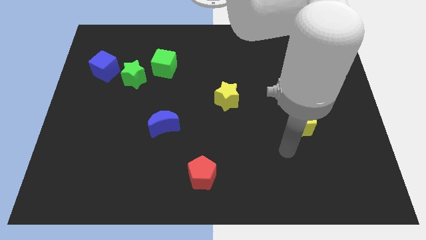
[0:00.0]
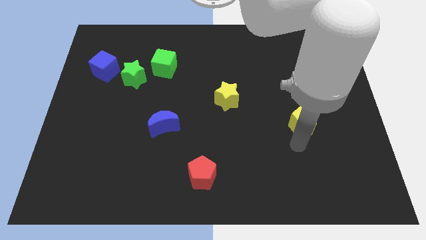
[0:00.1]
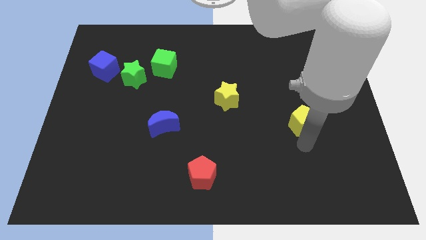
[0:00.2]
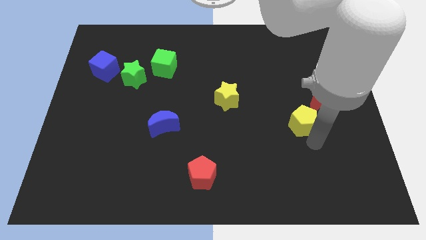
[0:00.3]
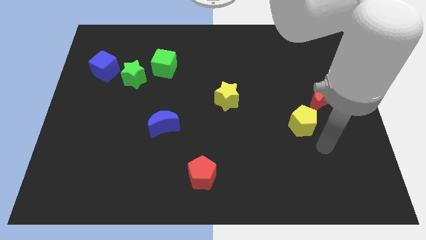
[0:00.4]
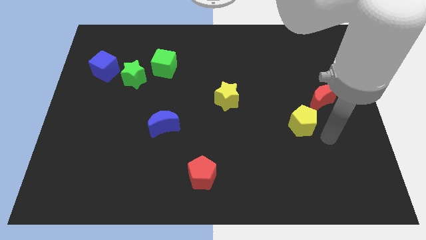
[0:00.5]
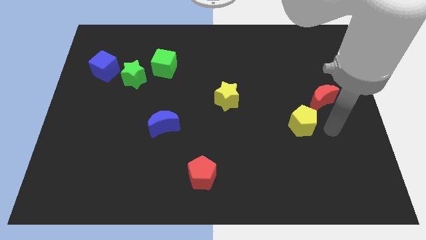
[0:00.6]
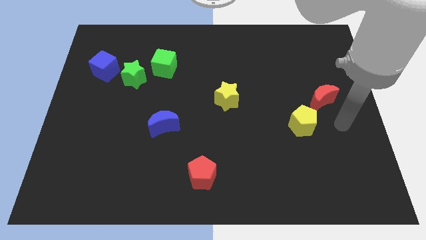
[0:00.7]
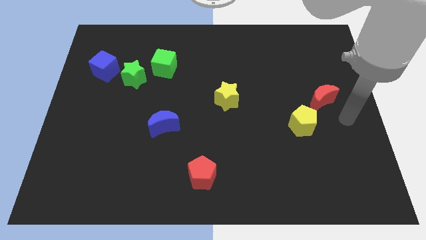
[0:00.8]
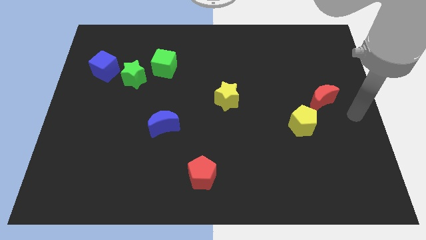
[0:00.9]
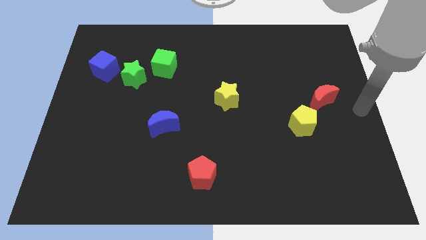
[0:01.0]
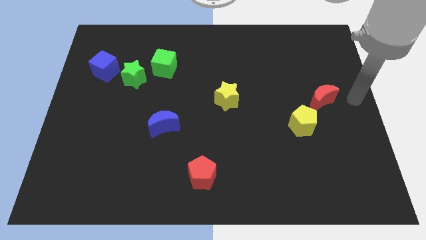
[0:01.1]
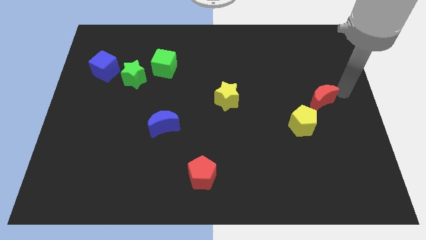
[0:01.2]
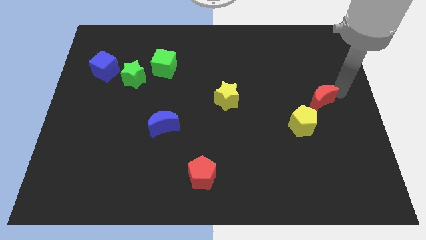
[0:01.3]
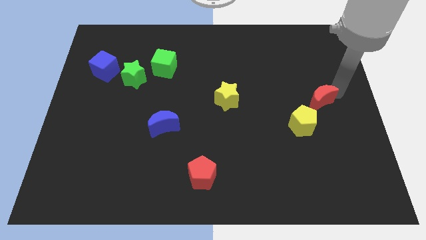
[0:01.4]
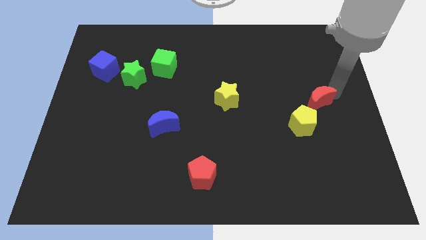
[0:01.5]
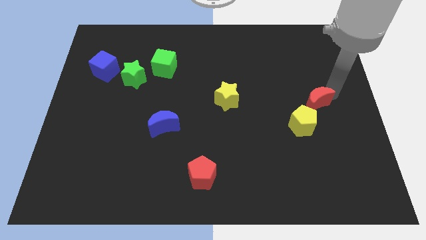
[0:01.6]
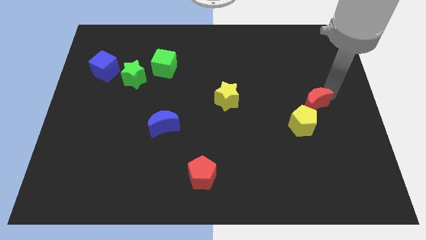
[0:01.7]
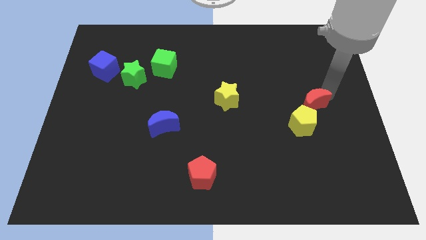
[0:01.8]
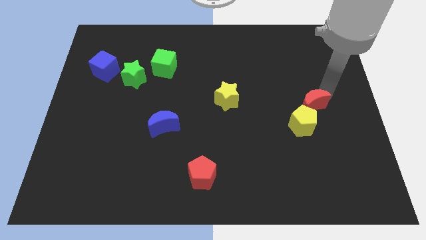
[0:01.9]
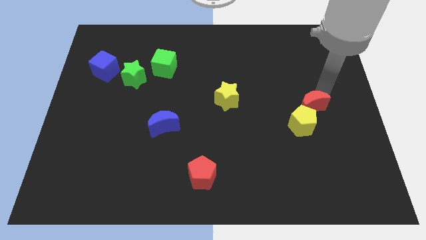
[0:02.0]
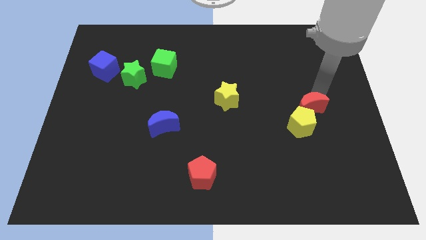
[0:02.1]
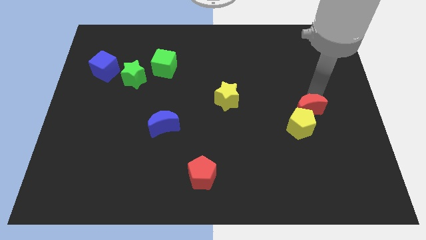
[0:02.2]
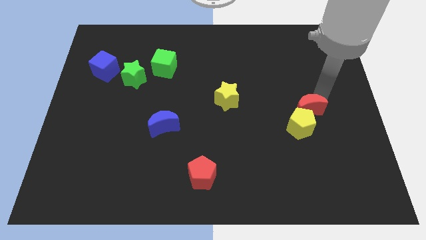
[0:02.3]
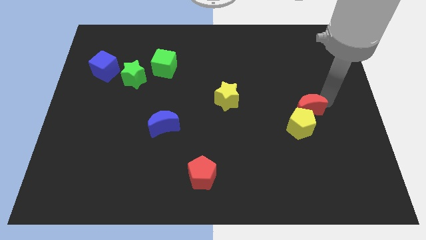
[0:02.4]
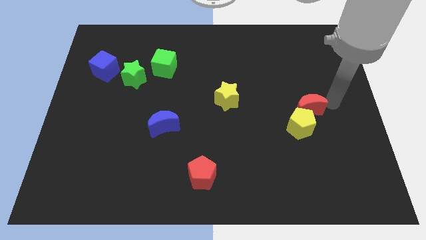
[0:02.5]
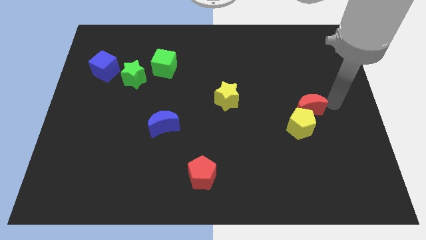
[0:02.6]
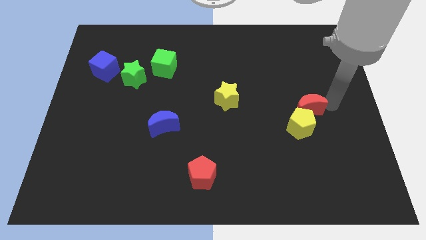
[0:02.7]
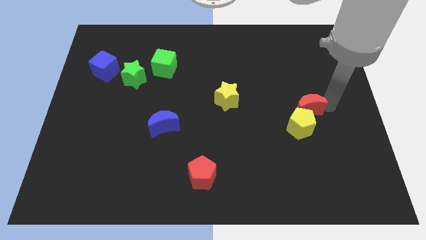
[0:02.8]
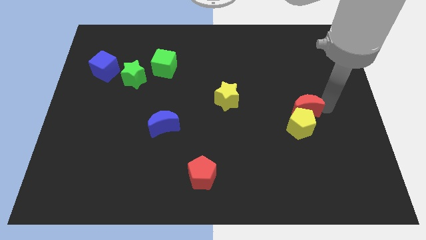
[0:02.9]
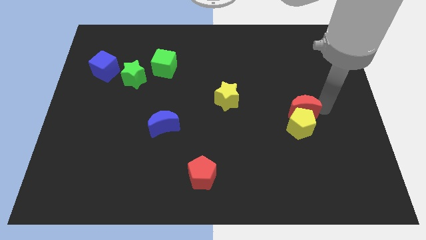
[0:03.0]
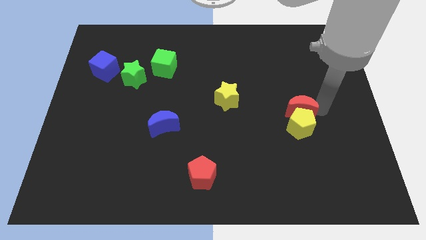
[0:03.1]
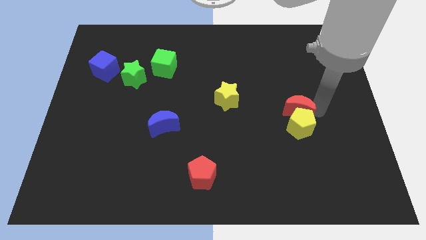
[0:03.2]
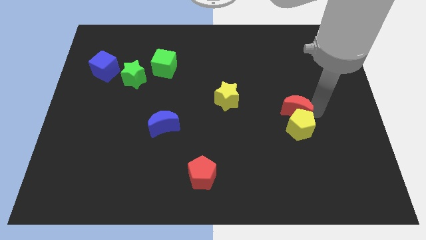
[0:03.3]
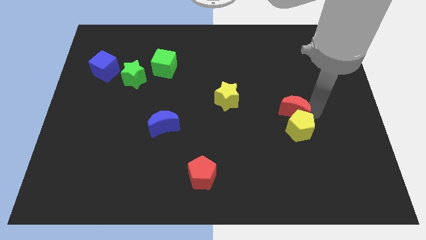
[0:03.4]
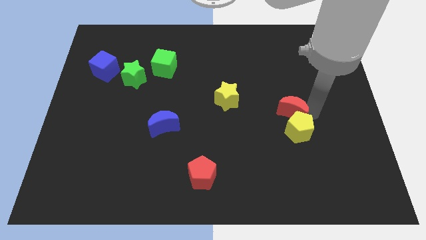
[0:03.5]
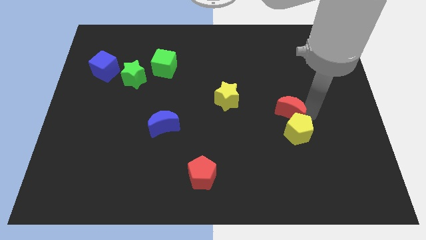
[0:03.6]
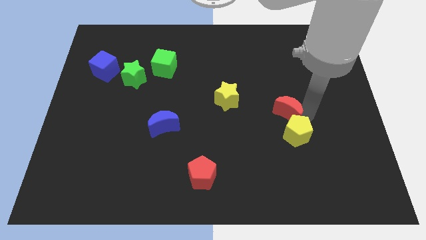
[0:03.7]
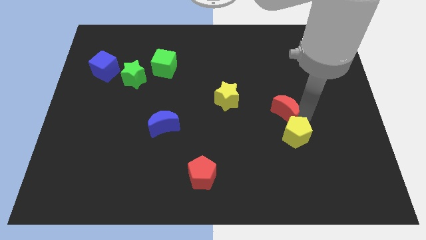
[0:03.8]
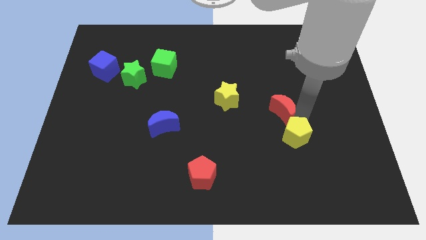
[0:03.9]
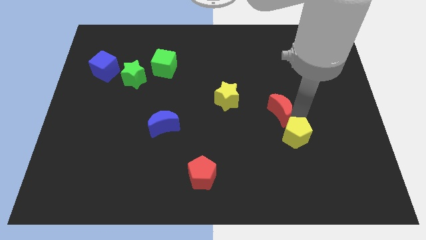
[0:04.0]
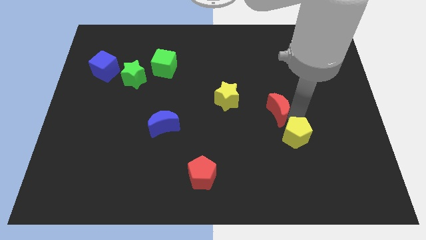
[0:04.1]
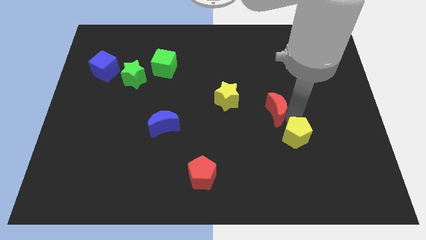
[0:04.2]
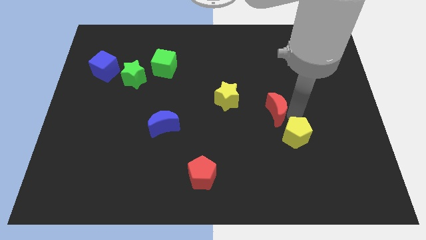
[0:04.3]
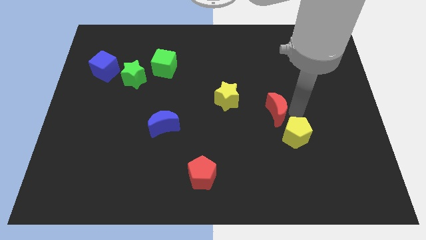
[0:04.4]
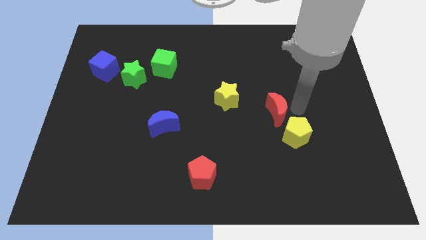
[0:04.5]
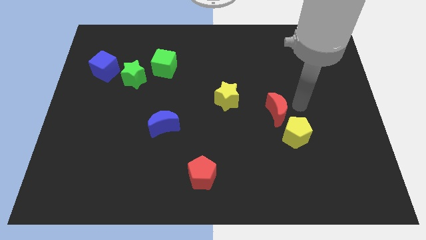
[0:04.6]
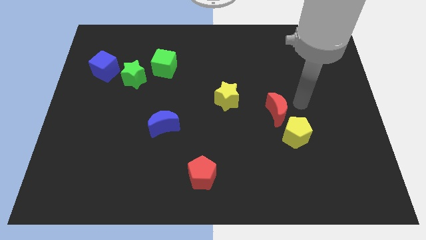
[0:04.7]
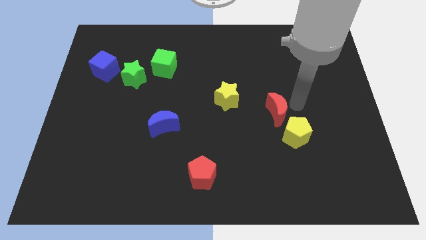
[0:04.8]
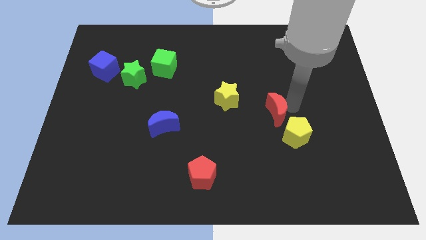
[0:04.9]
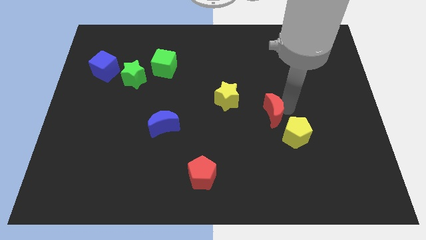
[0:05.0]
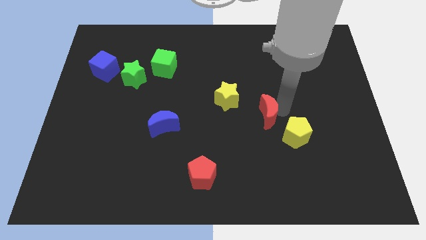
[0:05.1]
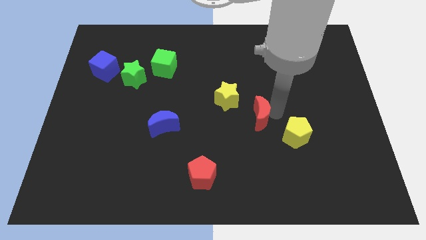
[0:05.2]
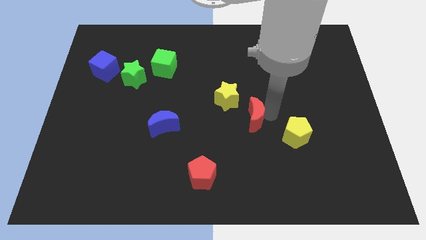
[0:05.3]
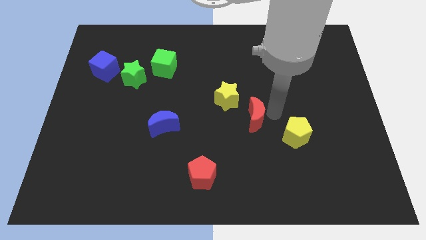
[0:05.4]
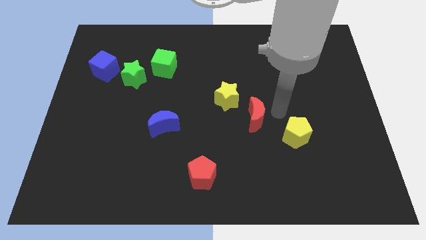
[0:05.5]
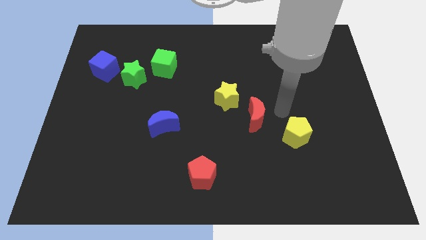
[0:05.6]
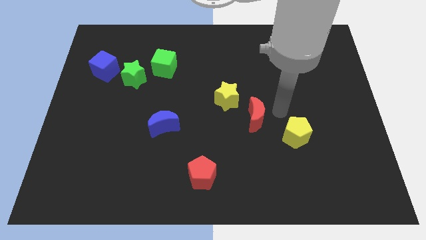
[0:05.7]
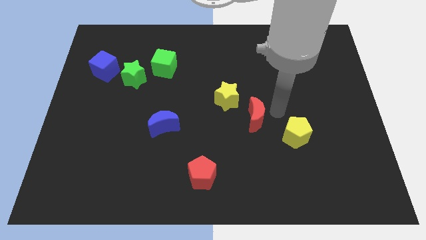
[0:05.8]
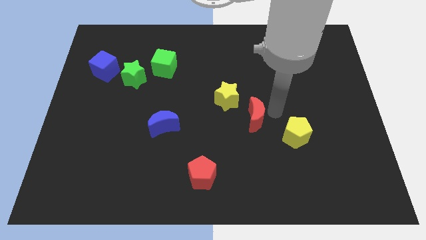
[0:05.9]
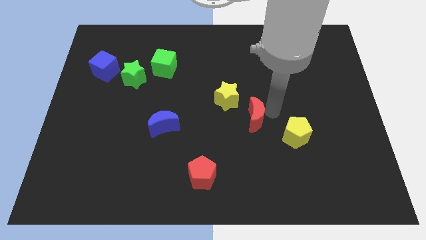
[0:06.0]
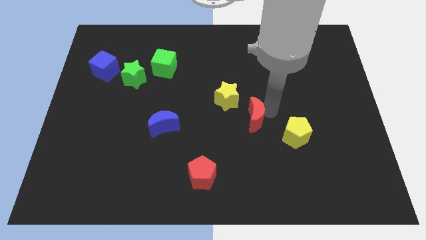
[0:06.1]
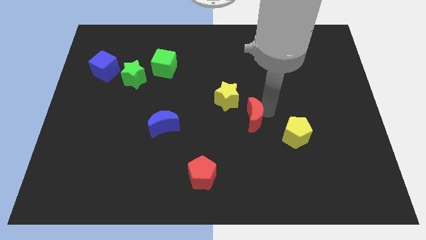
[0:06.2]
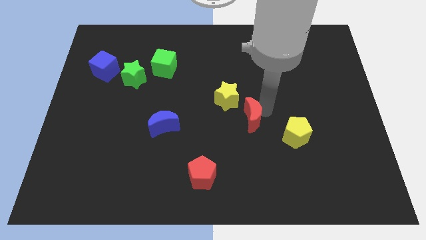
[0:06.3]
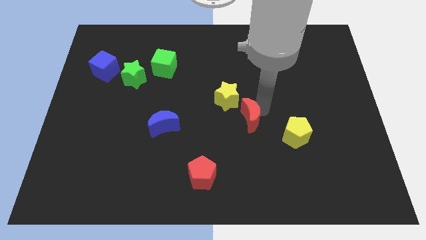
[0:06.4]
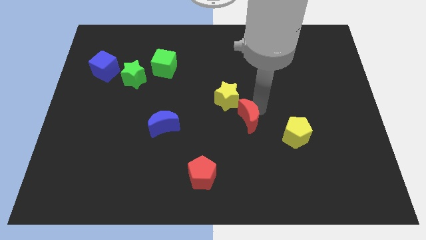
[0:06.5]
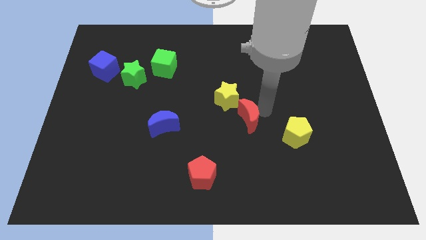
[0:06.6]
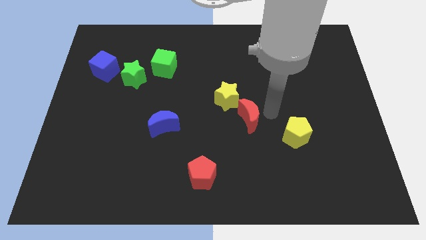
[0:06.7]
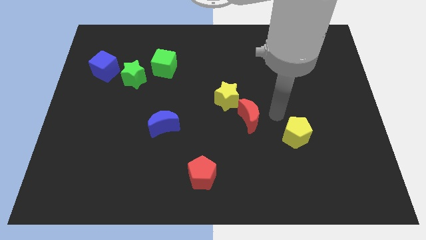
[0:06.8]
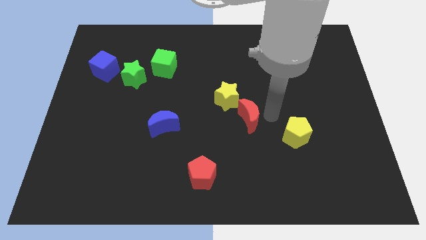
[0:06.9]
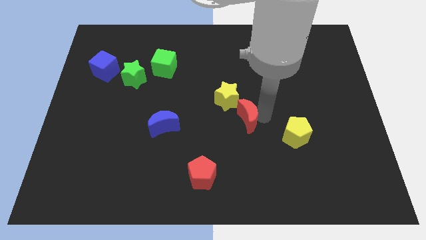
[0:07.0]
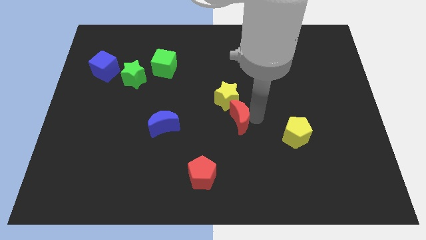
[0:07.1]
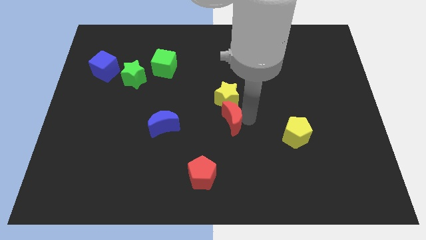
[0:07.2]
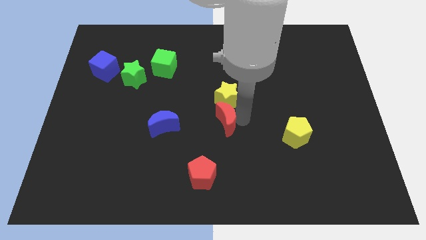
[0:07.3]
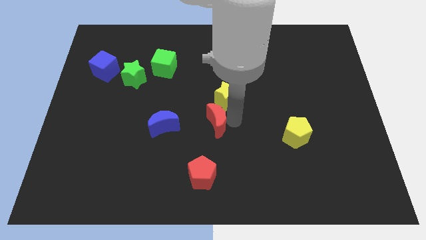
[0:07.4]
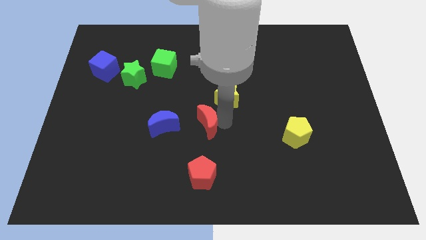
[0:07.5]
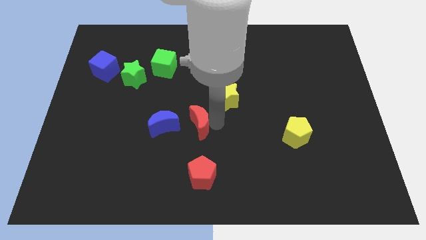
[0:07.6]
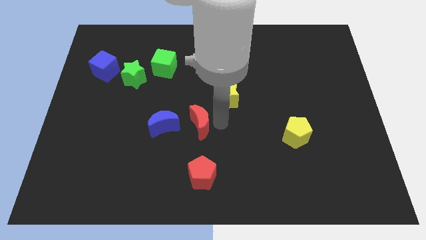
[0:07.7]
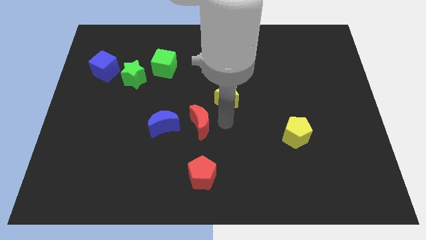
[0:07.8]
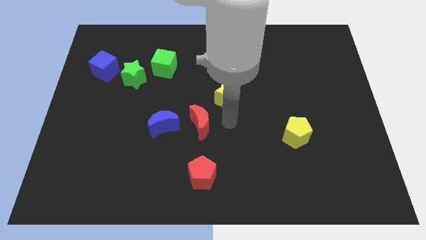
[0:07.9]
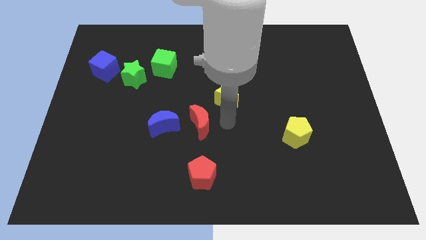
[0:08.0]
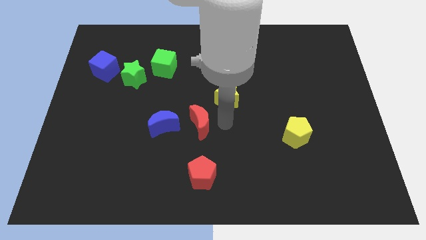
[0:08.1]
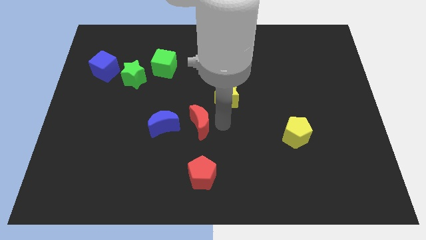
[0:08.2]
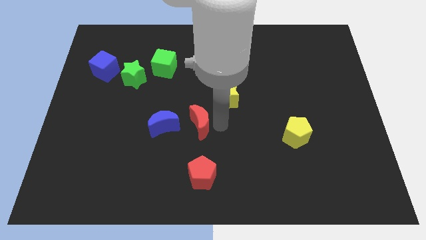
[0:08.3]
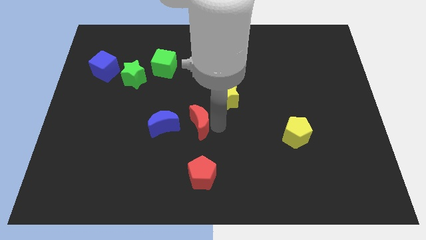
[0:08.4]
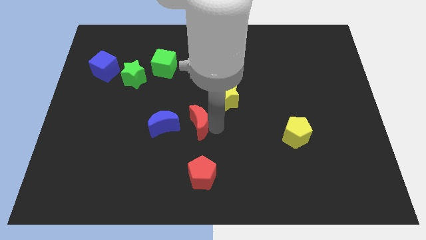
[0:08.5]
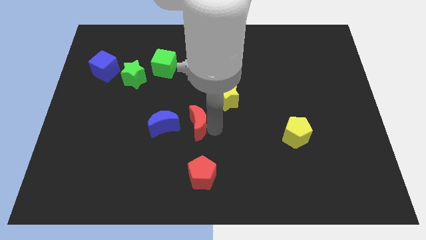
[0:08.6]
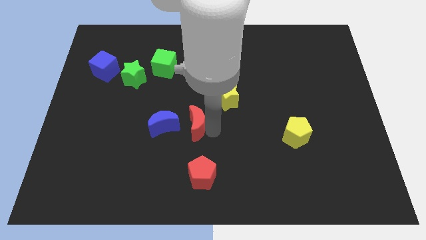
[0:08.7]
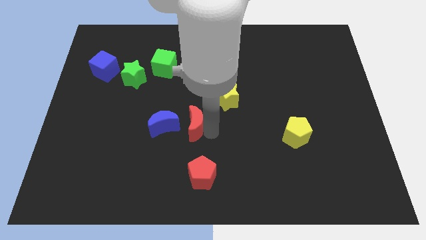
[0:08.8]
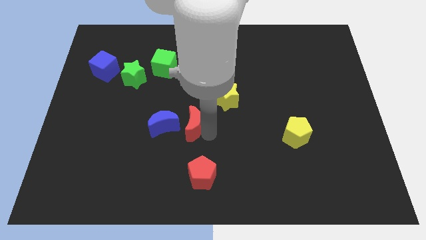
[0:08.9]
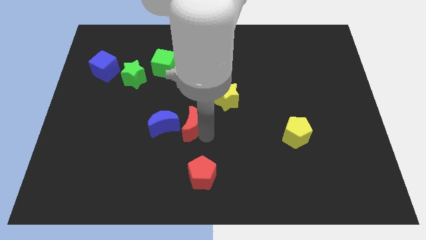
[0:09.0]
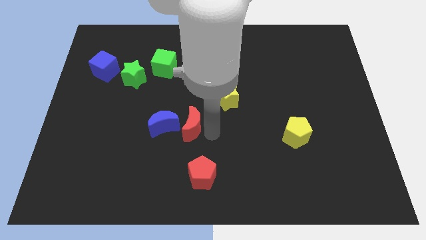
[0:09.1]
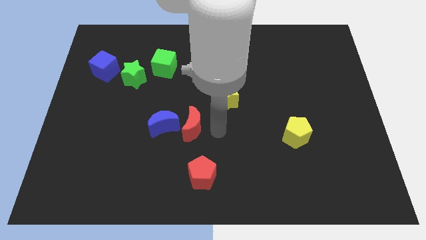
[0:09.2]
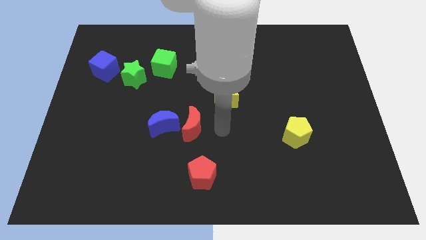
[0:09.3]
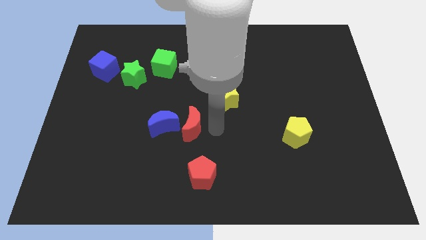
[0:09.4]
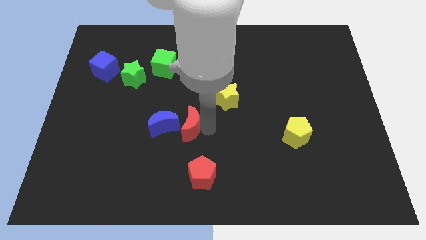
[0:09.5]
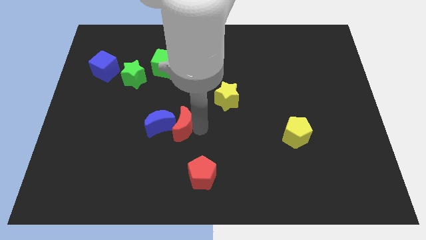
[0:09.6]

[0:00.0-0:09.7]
put the red moon next to the blue moon
